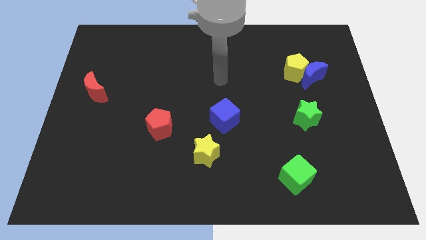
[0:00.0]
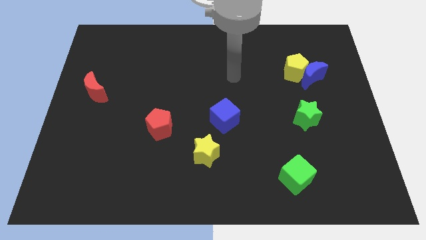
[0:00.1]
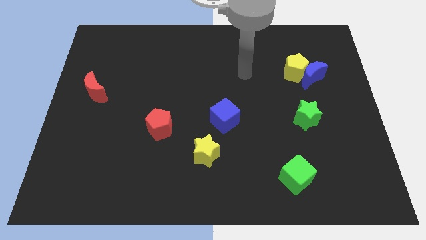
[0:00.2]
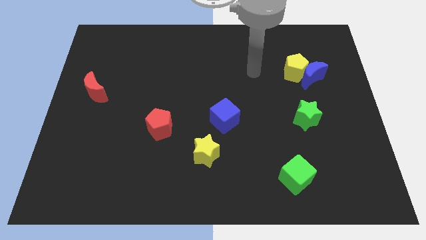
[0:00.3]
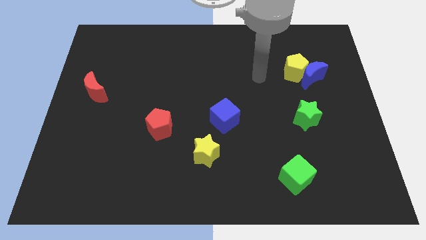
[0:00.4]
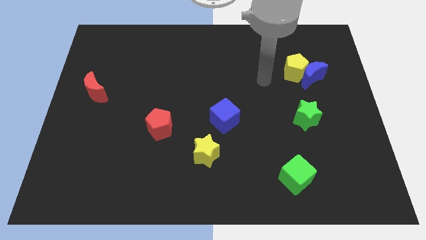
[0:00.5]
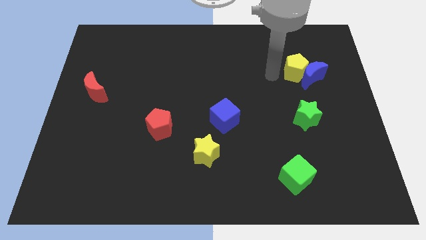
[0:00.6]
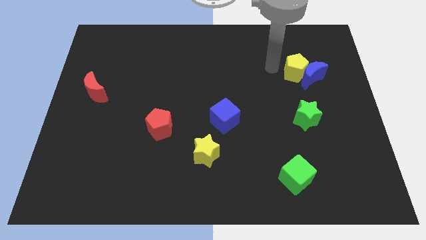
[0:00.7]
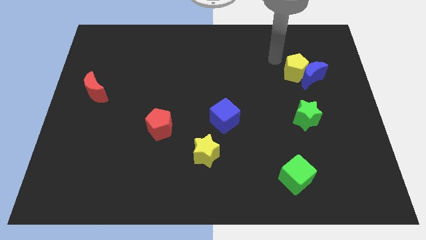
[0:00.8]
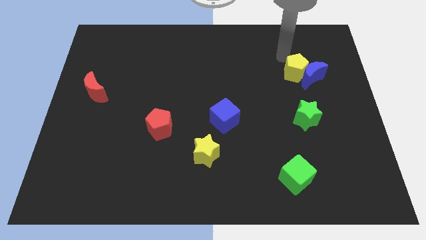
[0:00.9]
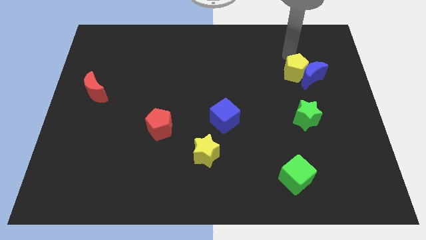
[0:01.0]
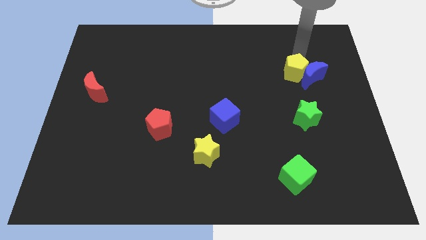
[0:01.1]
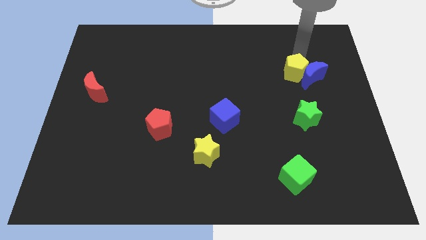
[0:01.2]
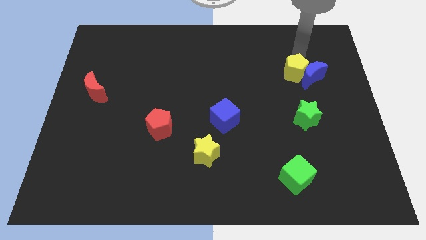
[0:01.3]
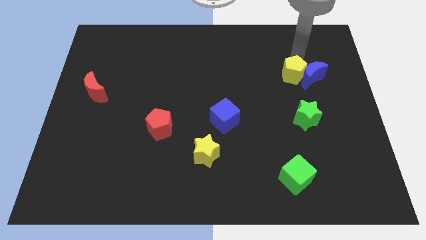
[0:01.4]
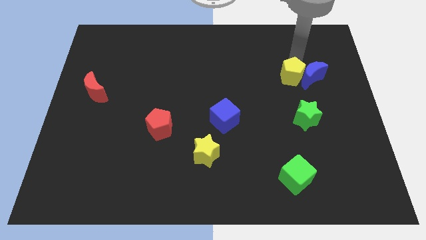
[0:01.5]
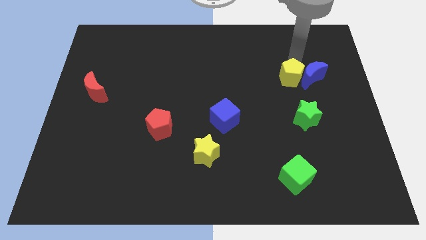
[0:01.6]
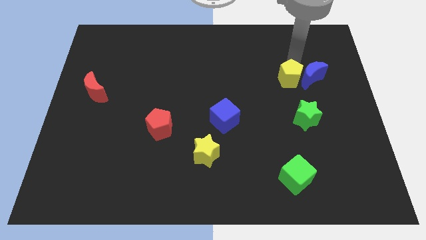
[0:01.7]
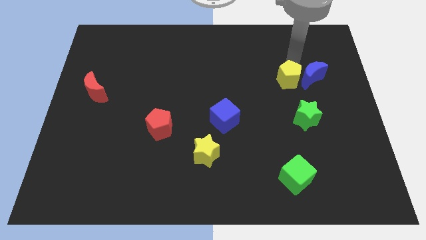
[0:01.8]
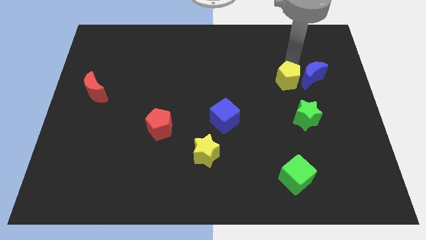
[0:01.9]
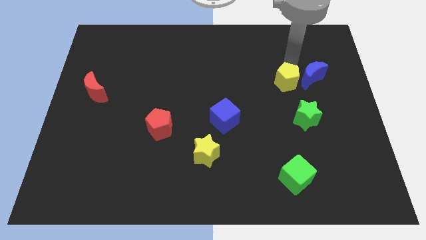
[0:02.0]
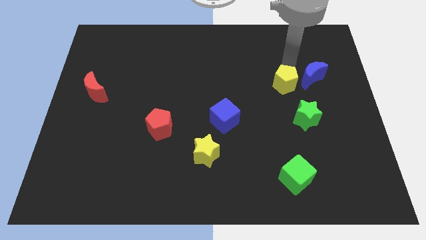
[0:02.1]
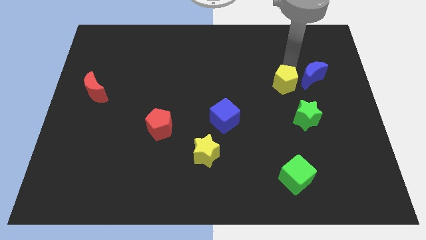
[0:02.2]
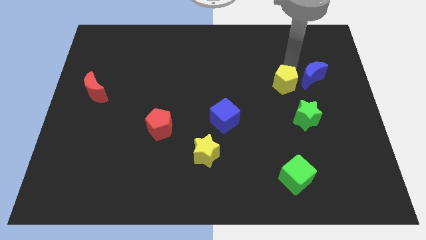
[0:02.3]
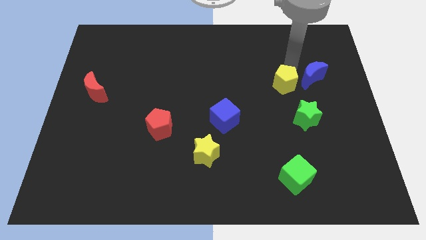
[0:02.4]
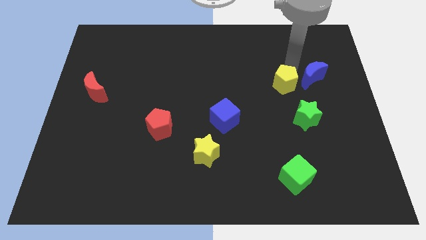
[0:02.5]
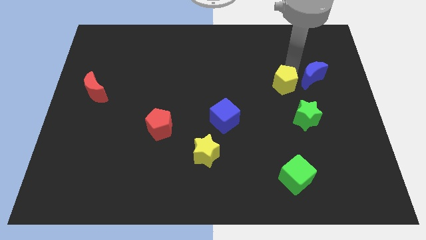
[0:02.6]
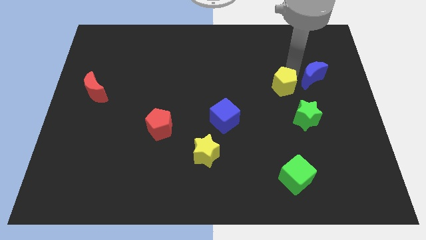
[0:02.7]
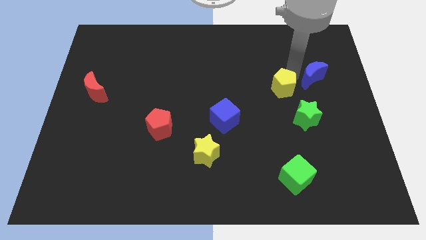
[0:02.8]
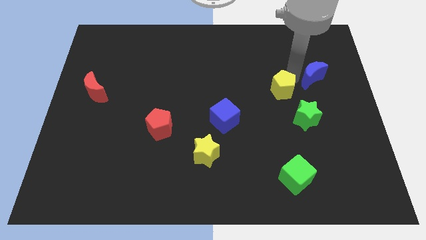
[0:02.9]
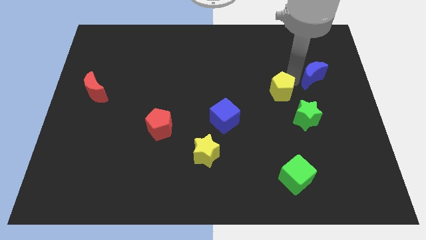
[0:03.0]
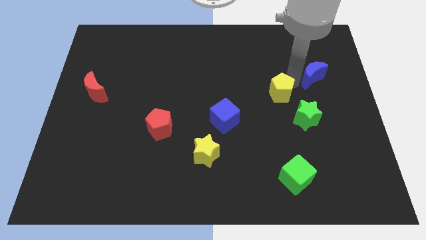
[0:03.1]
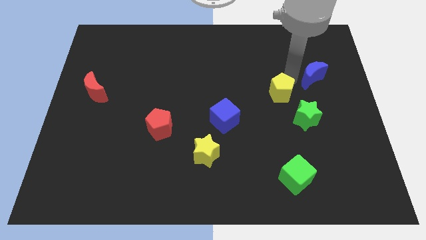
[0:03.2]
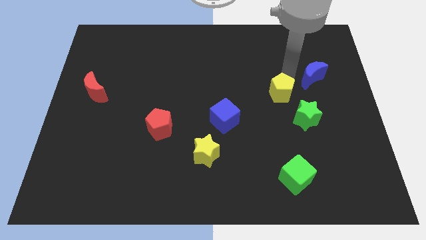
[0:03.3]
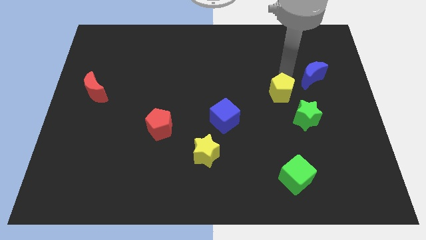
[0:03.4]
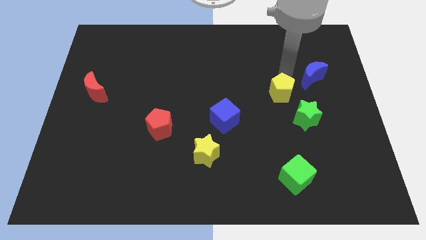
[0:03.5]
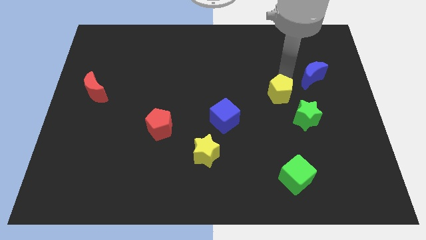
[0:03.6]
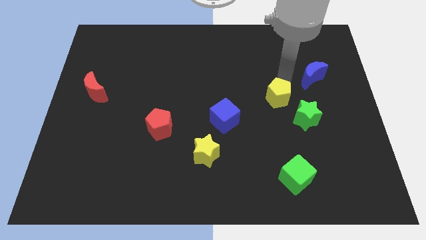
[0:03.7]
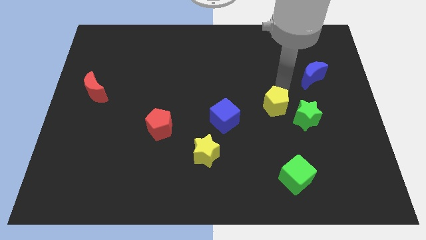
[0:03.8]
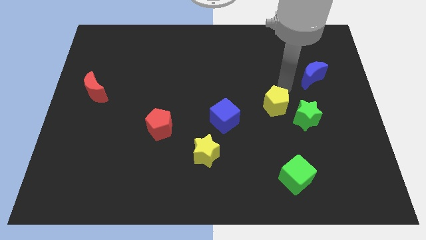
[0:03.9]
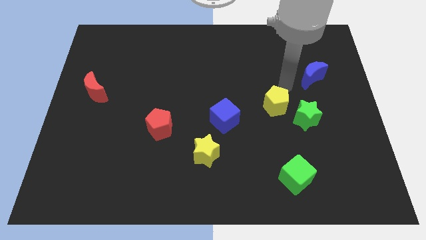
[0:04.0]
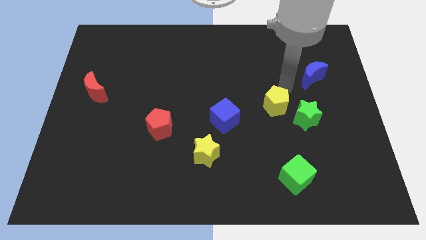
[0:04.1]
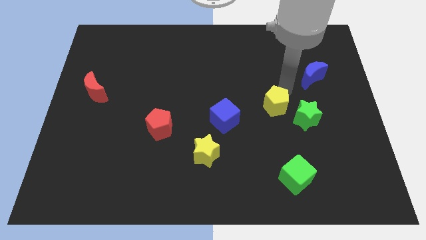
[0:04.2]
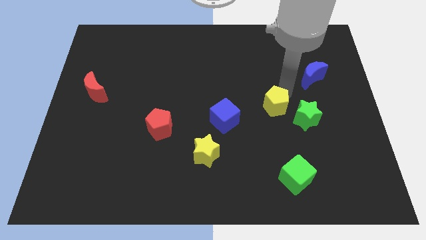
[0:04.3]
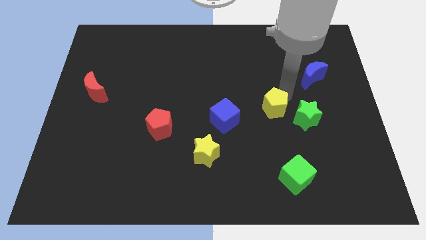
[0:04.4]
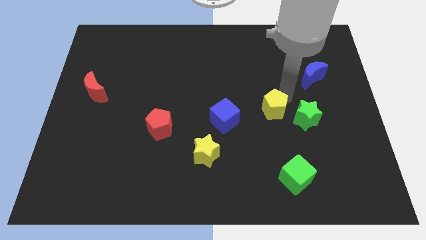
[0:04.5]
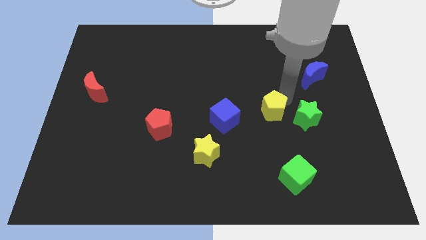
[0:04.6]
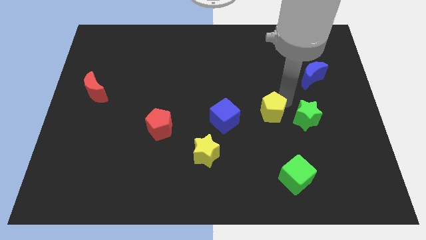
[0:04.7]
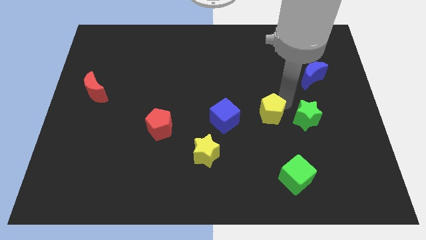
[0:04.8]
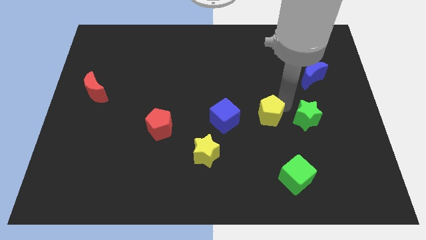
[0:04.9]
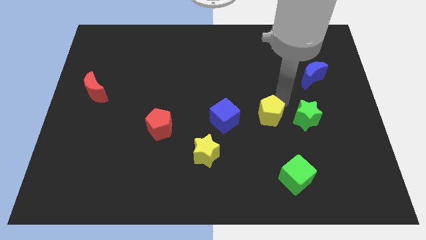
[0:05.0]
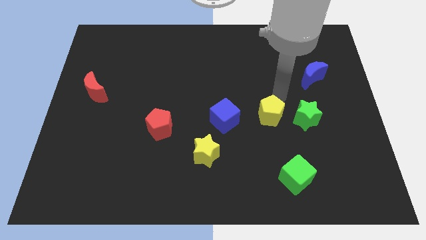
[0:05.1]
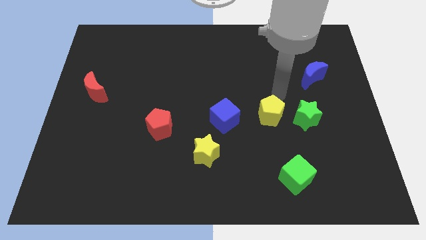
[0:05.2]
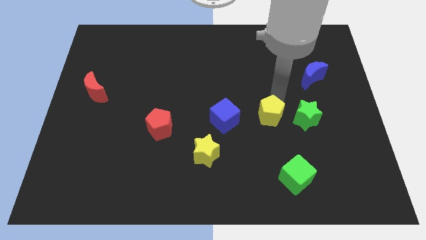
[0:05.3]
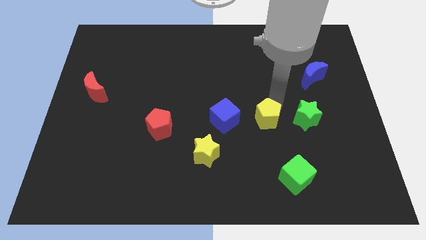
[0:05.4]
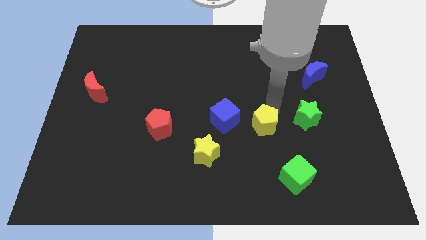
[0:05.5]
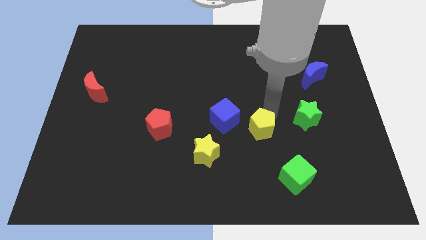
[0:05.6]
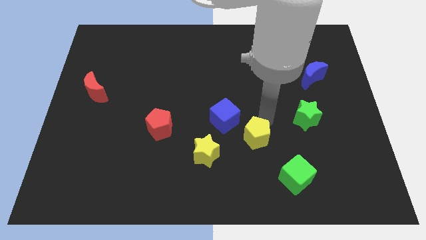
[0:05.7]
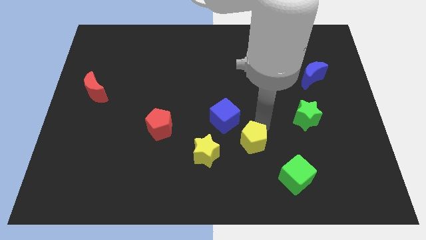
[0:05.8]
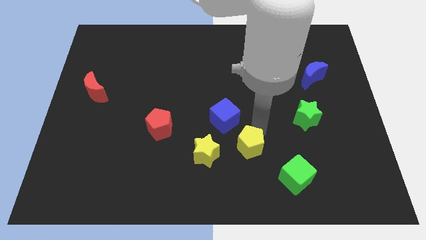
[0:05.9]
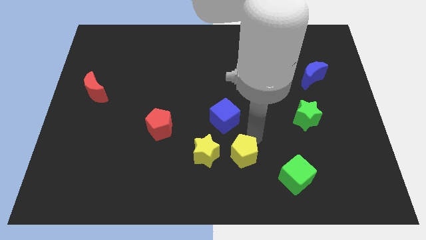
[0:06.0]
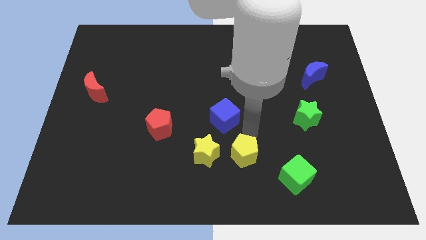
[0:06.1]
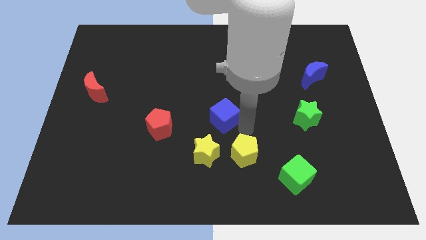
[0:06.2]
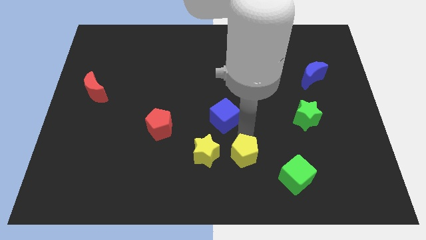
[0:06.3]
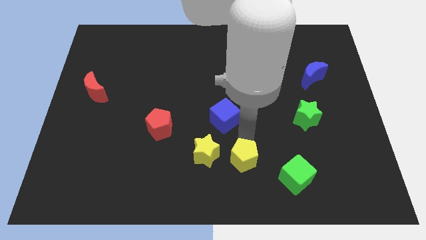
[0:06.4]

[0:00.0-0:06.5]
slide the yellow pentagon to the left of the green cube

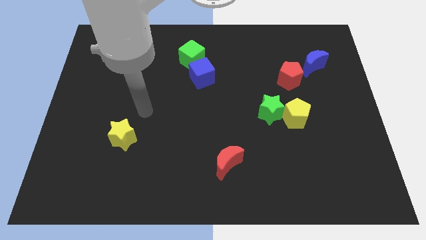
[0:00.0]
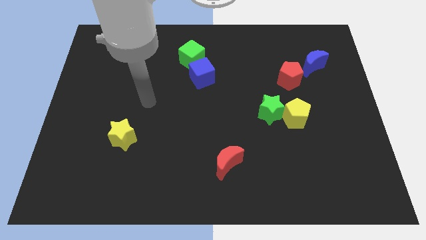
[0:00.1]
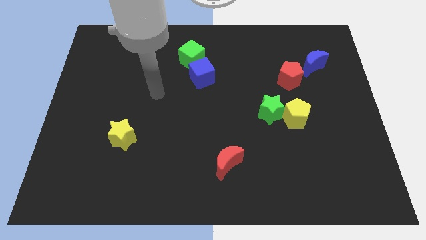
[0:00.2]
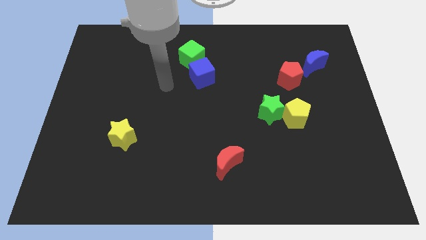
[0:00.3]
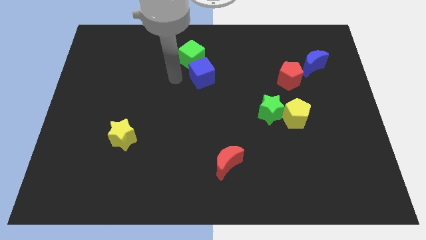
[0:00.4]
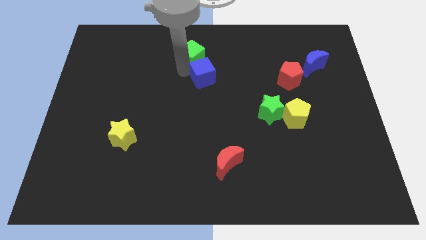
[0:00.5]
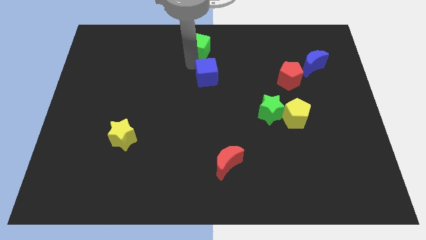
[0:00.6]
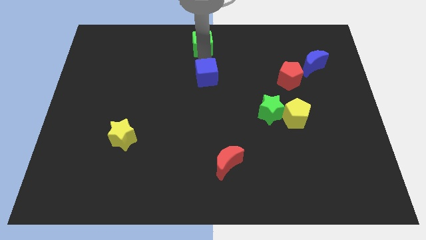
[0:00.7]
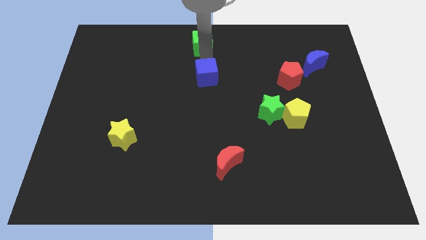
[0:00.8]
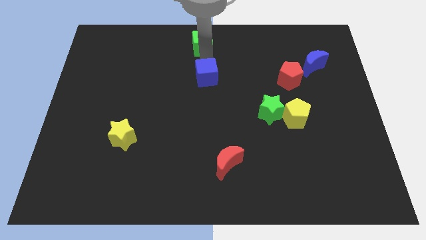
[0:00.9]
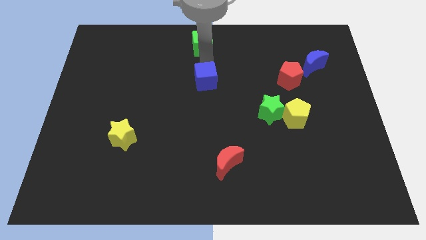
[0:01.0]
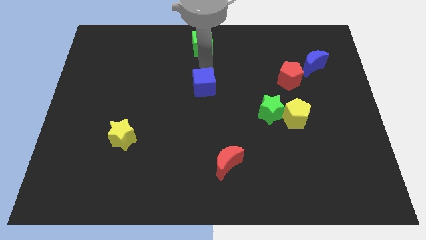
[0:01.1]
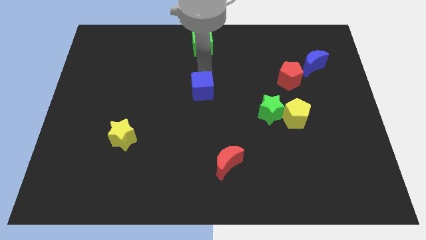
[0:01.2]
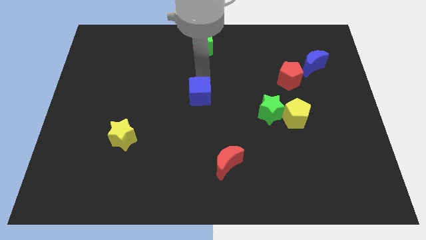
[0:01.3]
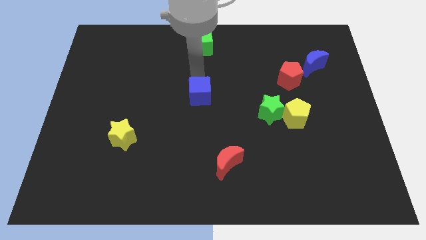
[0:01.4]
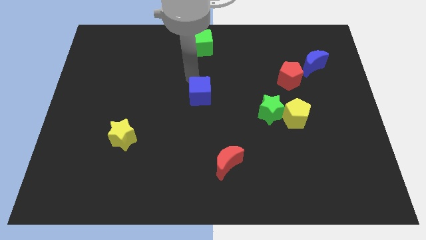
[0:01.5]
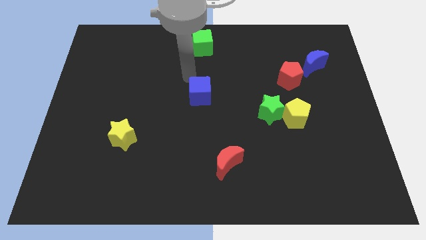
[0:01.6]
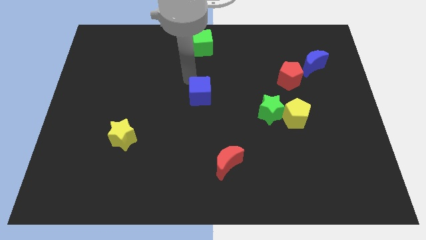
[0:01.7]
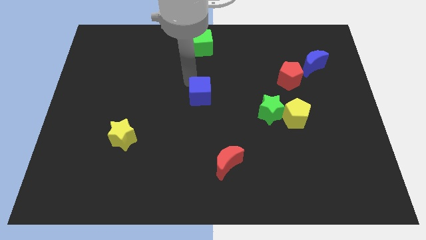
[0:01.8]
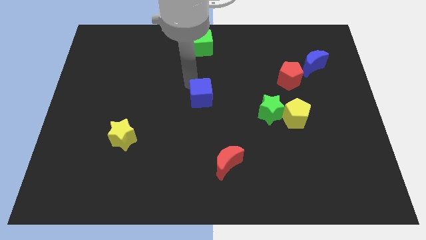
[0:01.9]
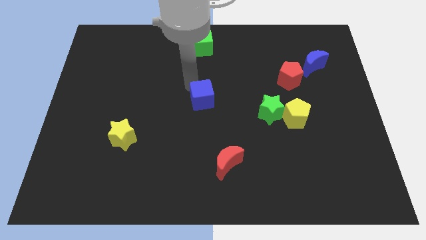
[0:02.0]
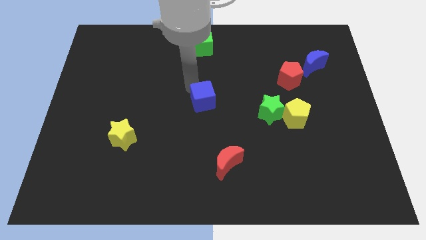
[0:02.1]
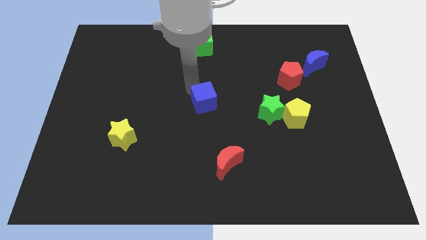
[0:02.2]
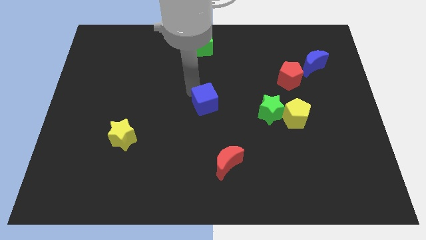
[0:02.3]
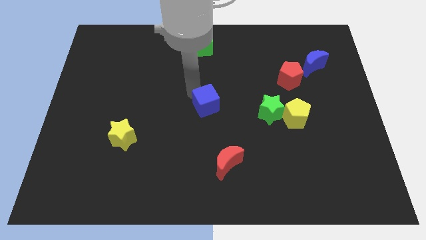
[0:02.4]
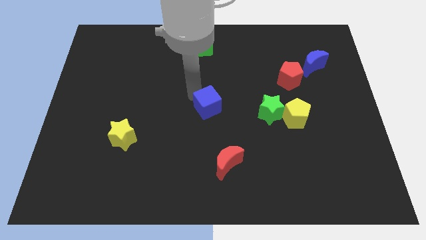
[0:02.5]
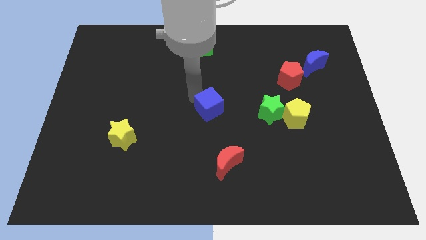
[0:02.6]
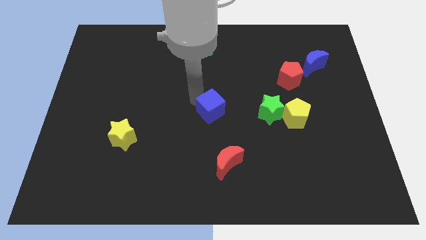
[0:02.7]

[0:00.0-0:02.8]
push the blue cube to the top side of the red moon
